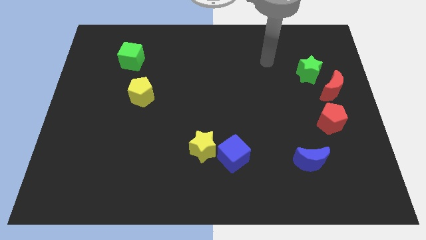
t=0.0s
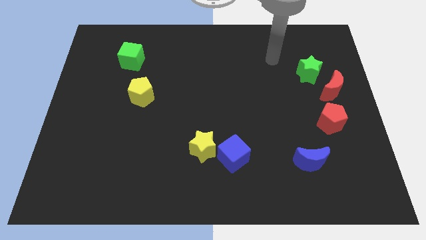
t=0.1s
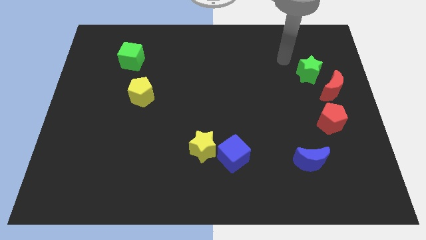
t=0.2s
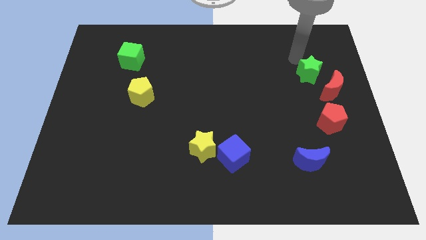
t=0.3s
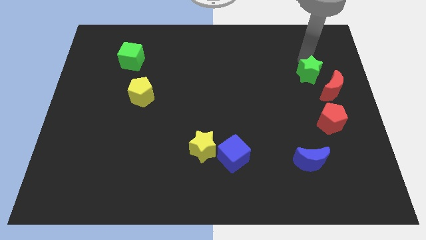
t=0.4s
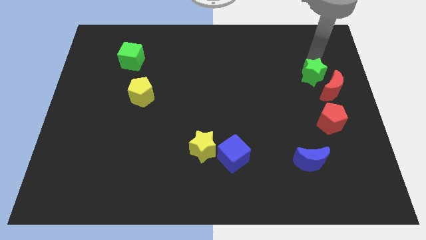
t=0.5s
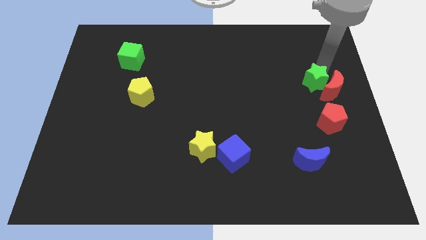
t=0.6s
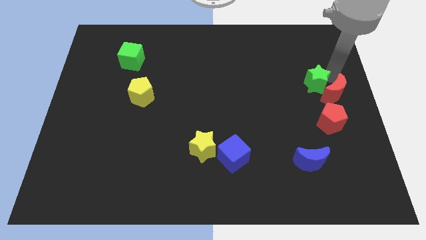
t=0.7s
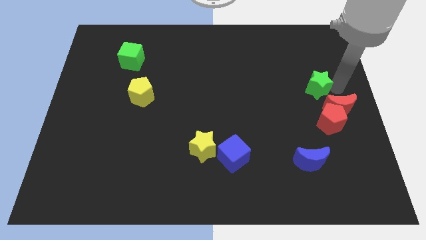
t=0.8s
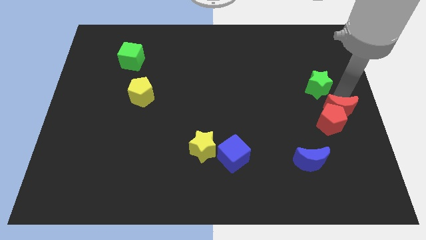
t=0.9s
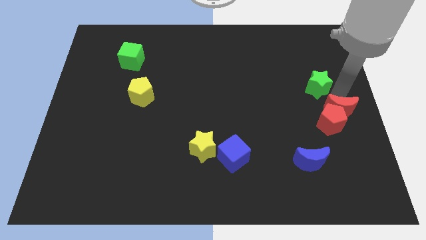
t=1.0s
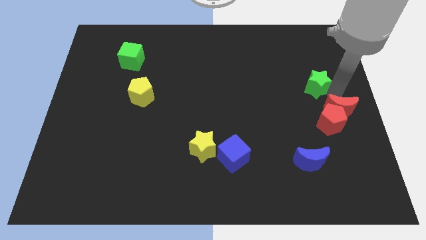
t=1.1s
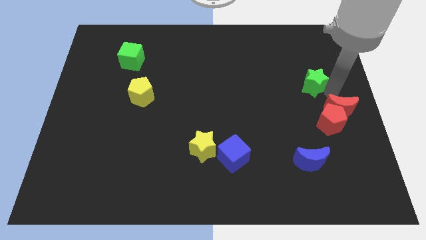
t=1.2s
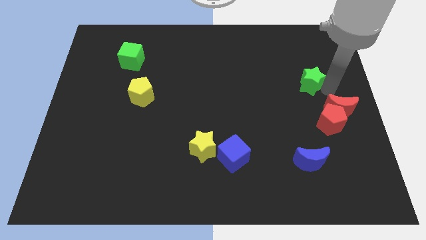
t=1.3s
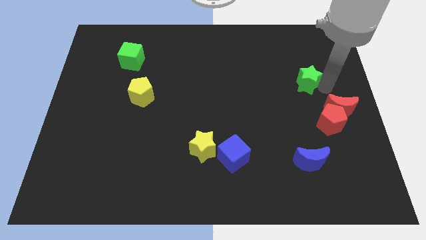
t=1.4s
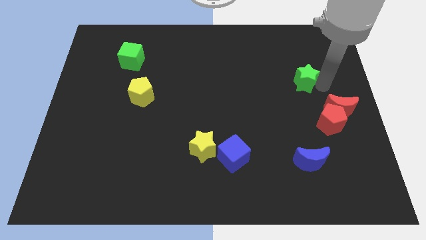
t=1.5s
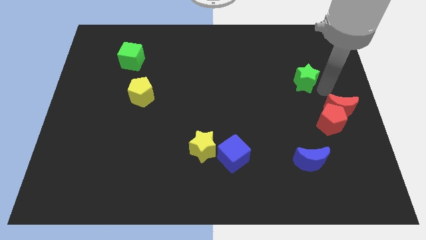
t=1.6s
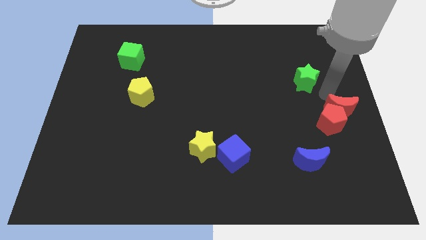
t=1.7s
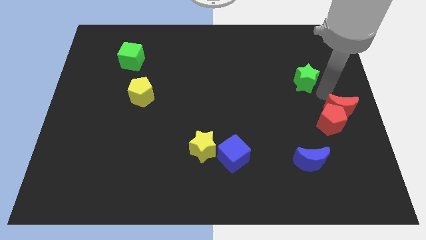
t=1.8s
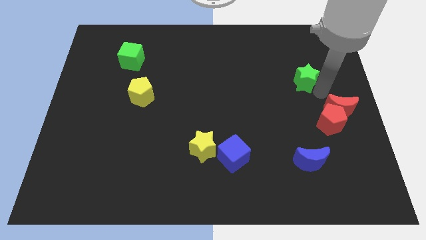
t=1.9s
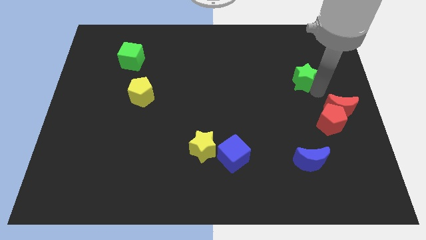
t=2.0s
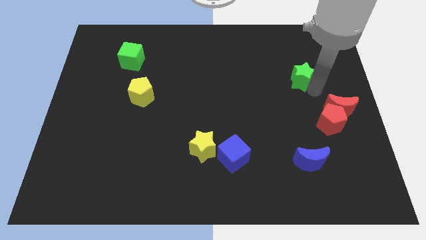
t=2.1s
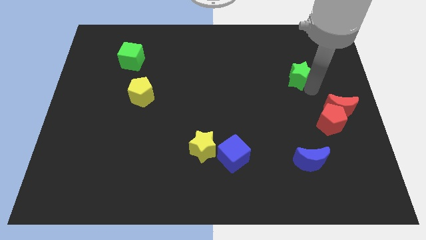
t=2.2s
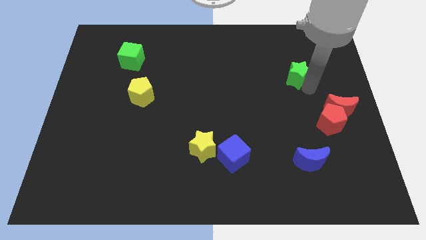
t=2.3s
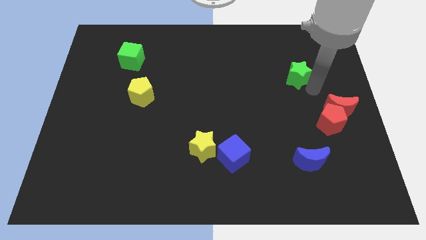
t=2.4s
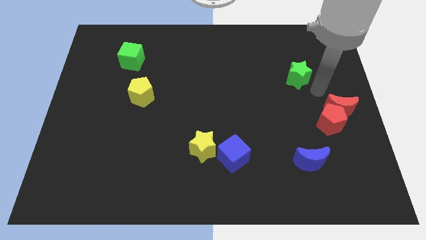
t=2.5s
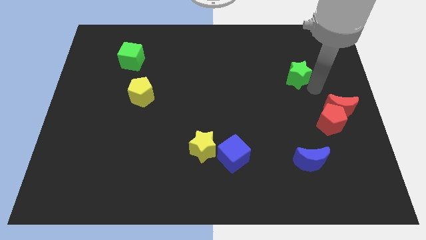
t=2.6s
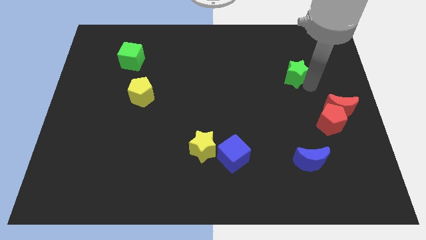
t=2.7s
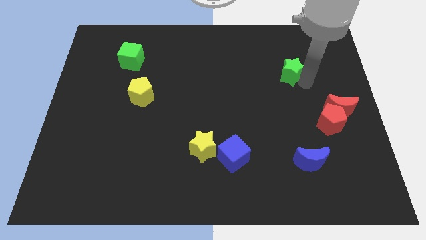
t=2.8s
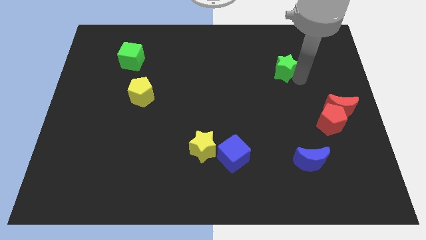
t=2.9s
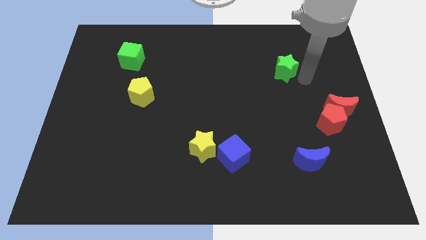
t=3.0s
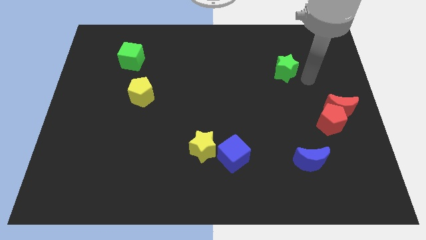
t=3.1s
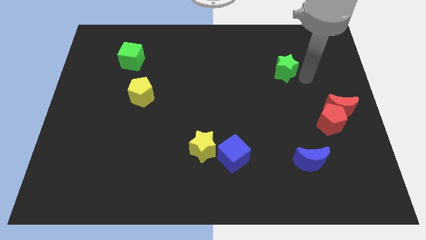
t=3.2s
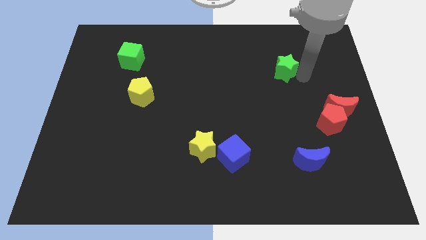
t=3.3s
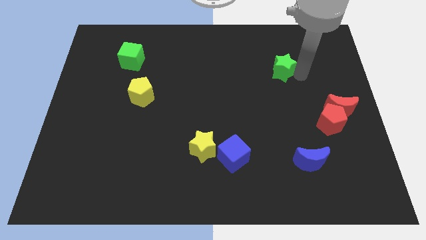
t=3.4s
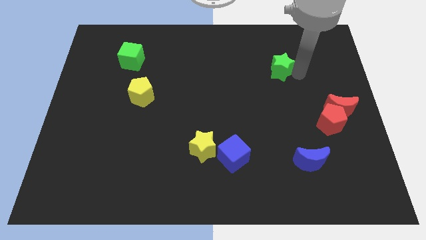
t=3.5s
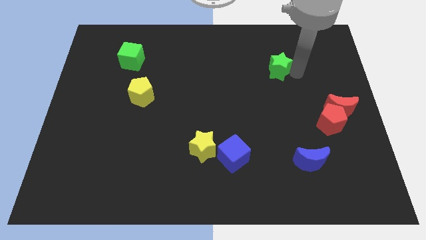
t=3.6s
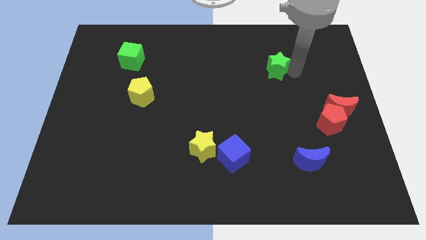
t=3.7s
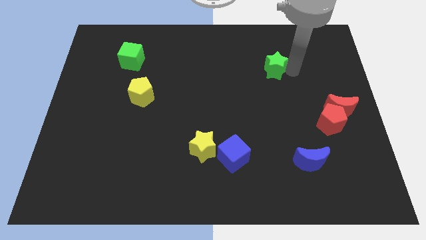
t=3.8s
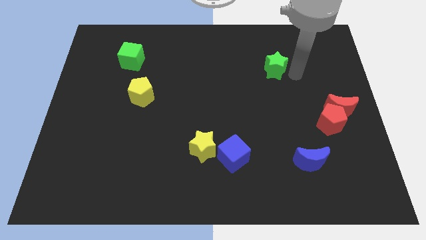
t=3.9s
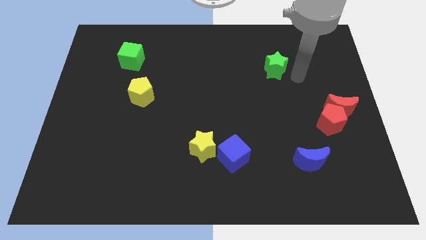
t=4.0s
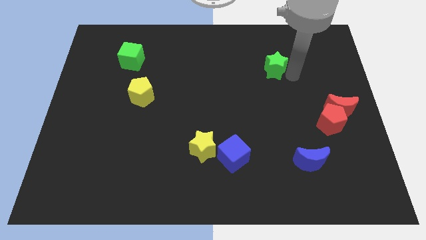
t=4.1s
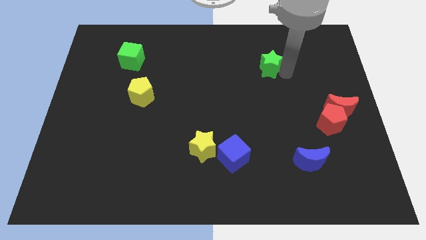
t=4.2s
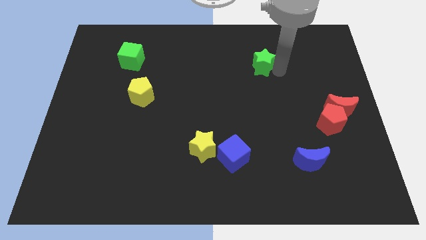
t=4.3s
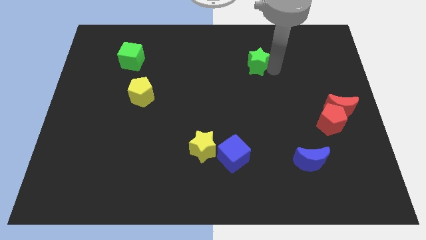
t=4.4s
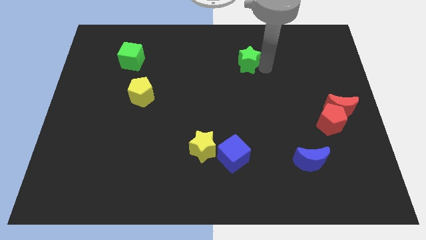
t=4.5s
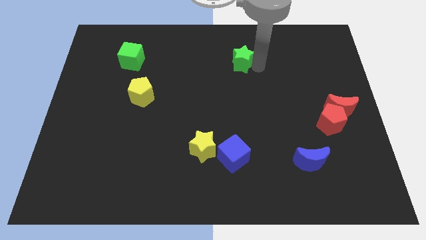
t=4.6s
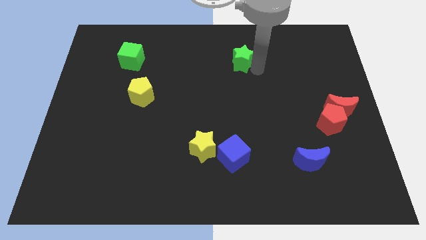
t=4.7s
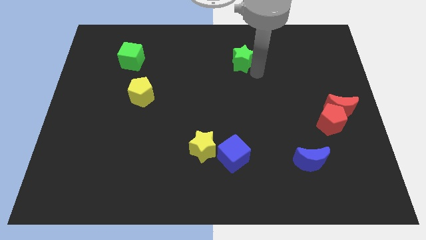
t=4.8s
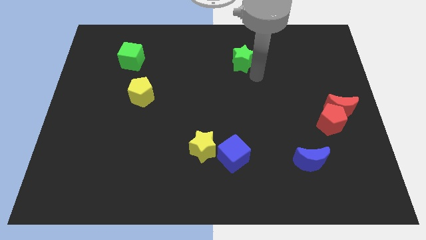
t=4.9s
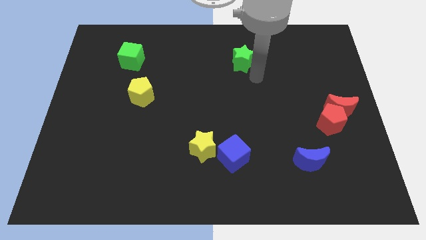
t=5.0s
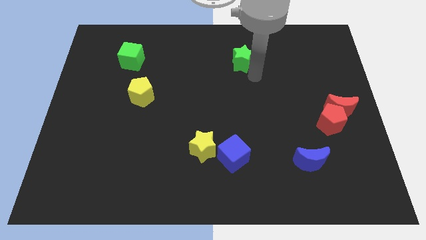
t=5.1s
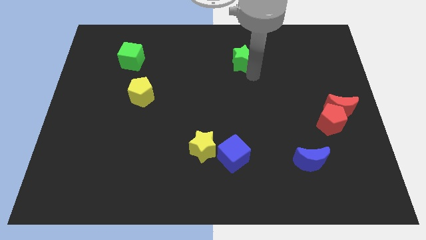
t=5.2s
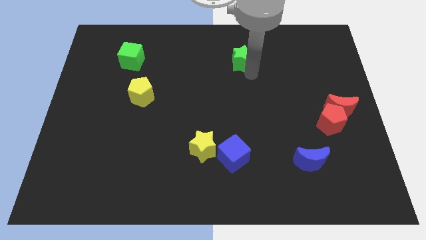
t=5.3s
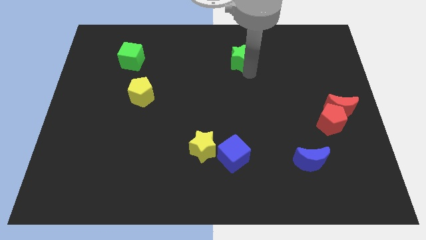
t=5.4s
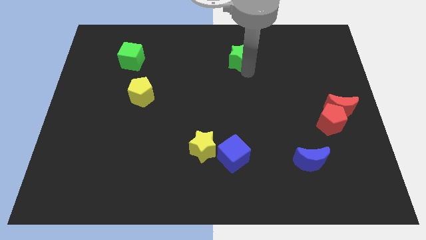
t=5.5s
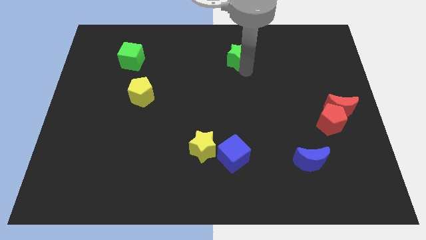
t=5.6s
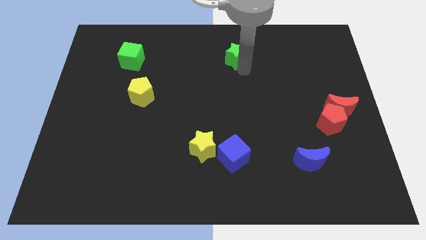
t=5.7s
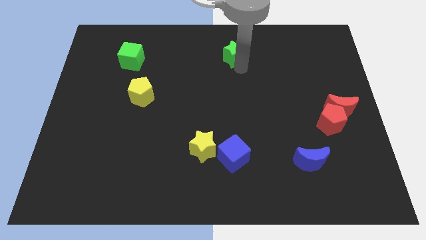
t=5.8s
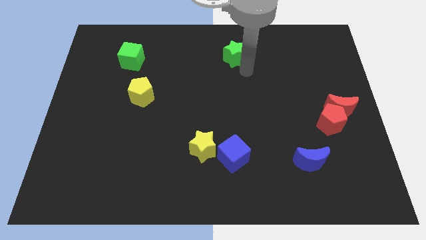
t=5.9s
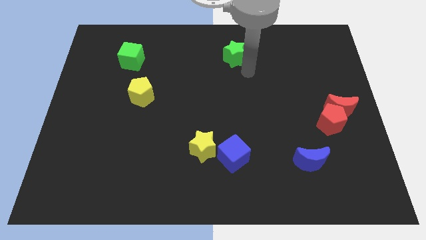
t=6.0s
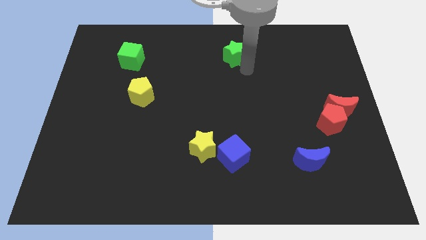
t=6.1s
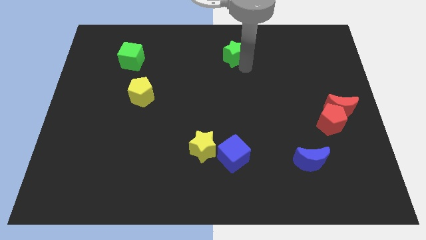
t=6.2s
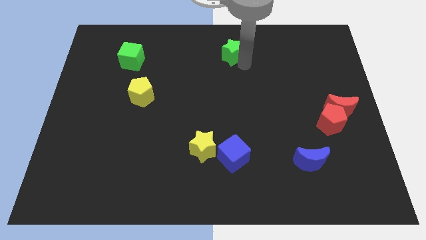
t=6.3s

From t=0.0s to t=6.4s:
slide the green star to the towards your base
